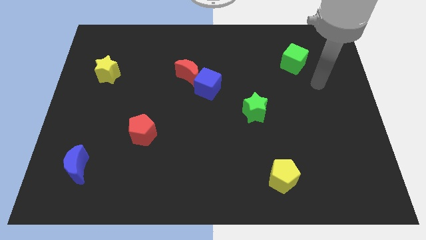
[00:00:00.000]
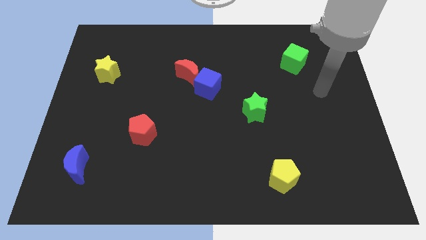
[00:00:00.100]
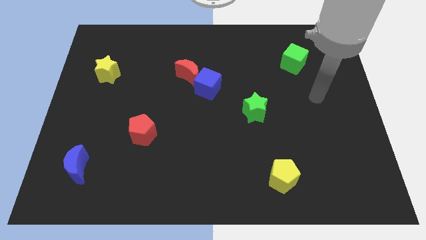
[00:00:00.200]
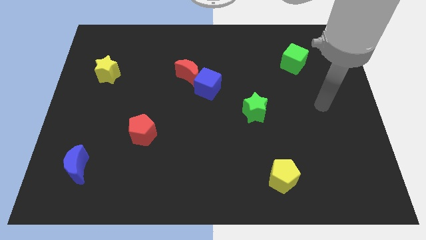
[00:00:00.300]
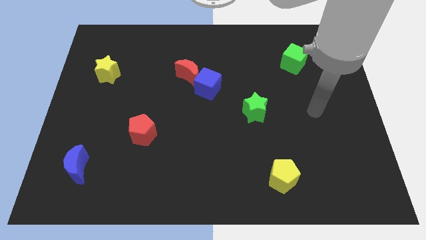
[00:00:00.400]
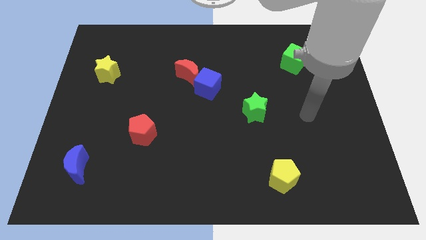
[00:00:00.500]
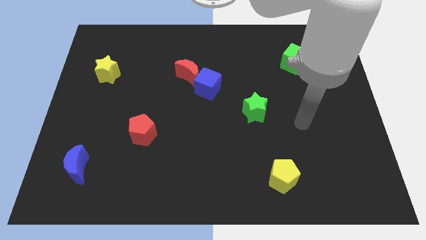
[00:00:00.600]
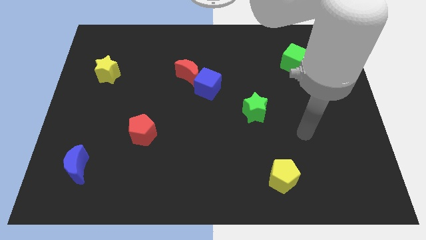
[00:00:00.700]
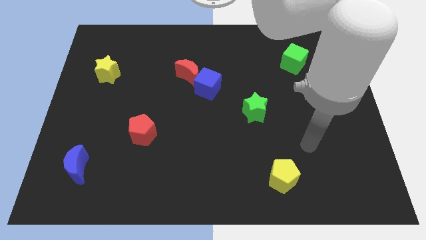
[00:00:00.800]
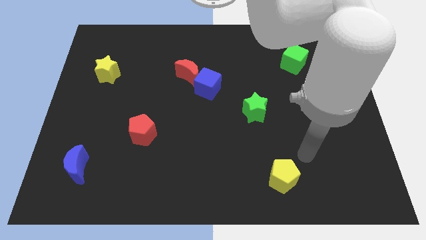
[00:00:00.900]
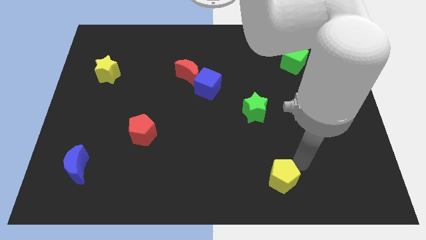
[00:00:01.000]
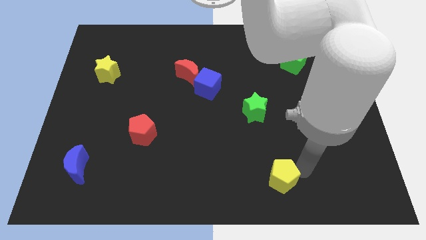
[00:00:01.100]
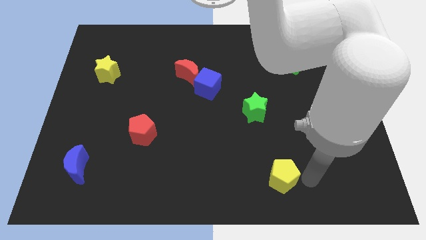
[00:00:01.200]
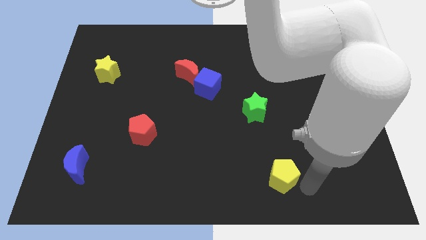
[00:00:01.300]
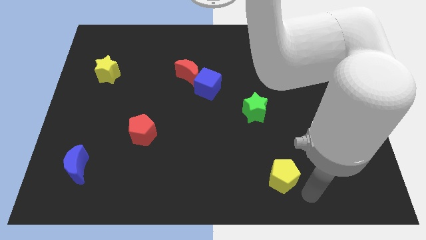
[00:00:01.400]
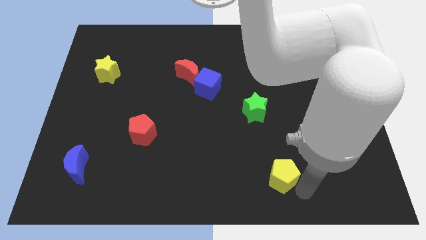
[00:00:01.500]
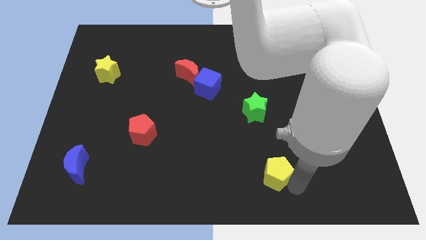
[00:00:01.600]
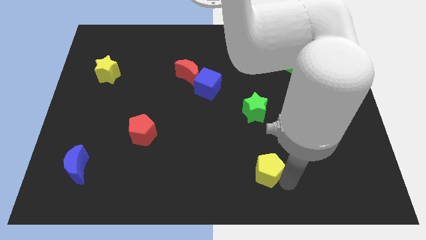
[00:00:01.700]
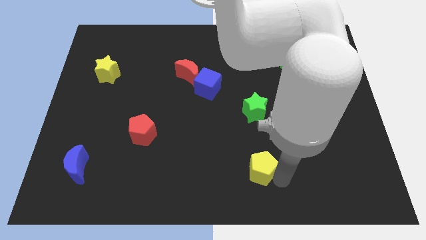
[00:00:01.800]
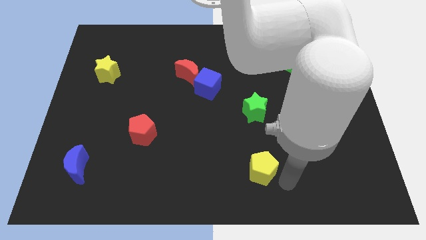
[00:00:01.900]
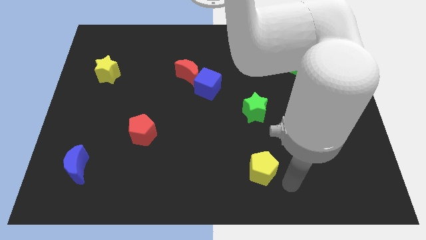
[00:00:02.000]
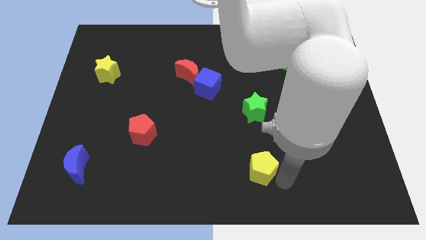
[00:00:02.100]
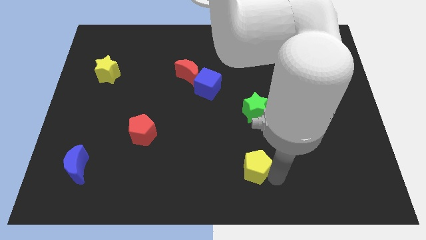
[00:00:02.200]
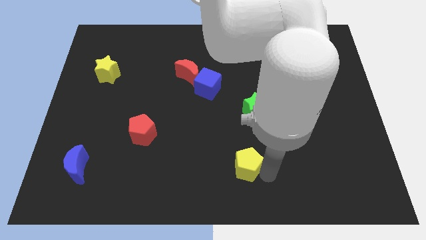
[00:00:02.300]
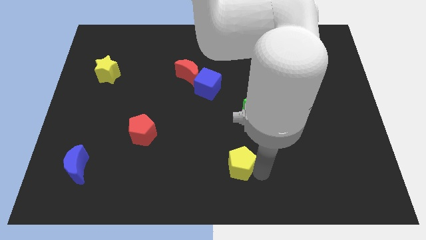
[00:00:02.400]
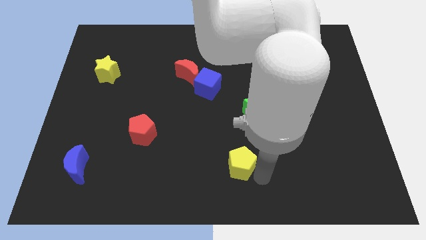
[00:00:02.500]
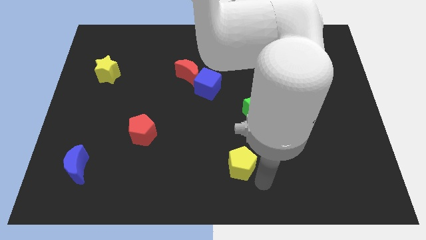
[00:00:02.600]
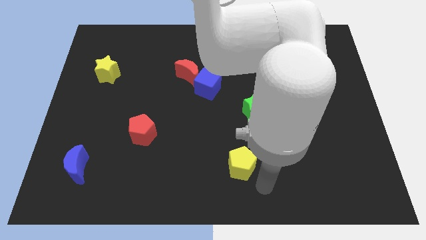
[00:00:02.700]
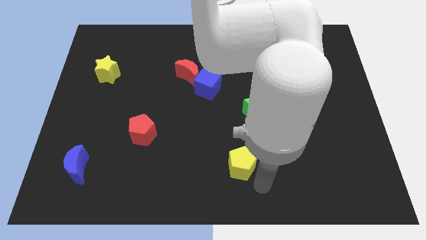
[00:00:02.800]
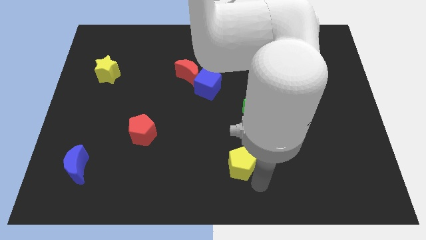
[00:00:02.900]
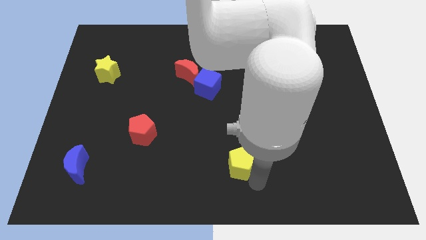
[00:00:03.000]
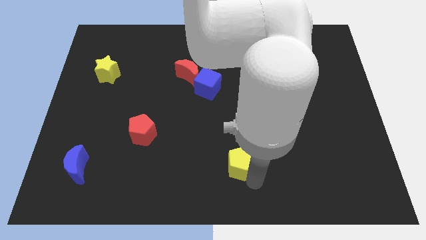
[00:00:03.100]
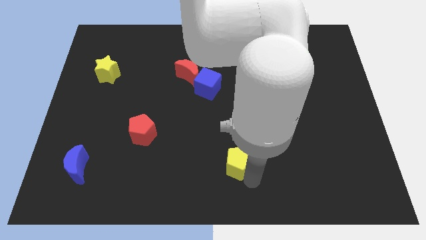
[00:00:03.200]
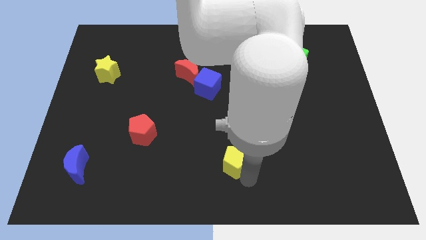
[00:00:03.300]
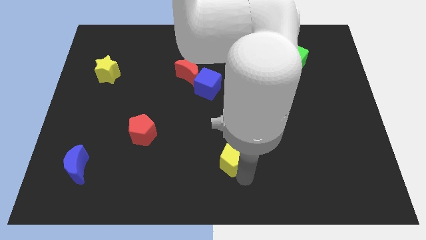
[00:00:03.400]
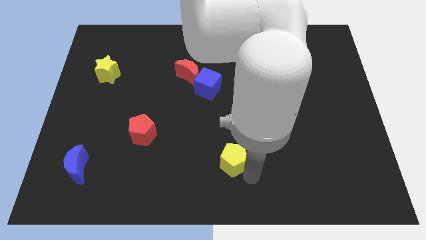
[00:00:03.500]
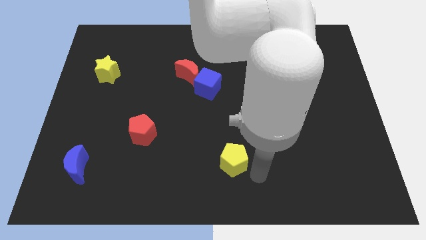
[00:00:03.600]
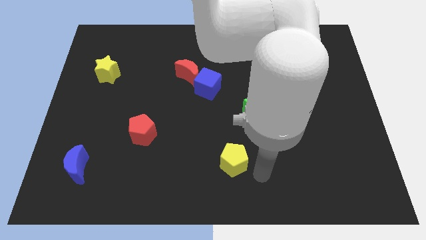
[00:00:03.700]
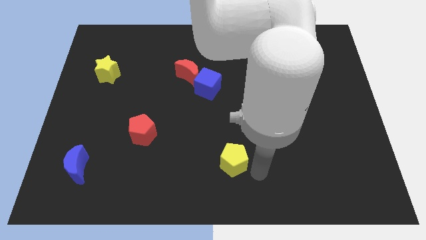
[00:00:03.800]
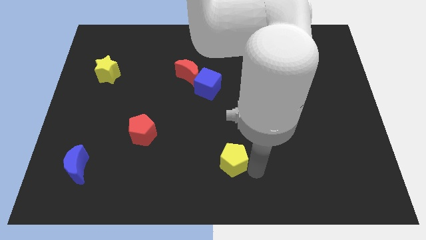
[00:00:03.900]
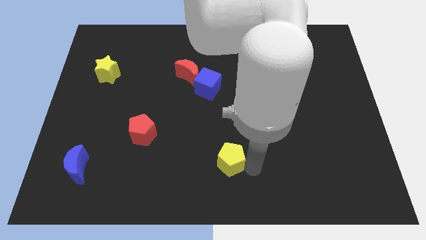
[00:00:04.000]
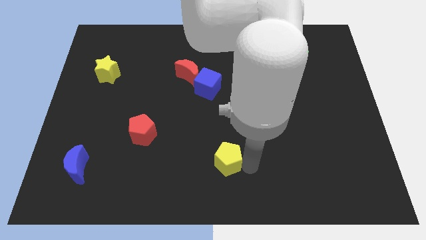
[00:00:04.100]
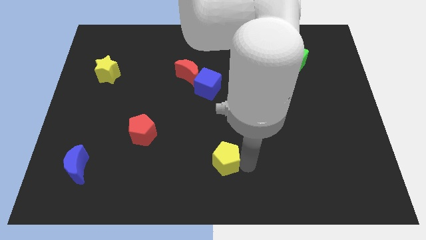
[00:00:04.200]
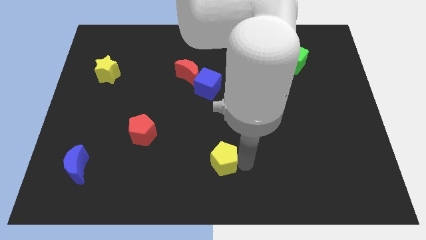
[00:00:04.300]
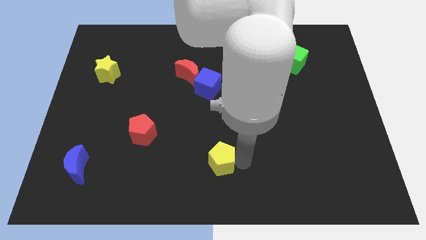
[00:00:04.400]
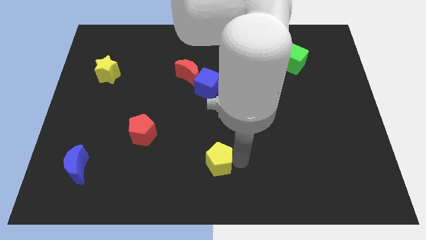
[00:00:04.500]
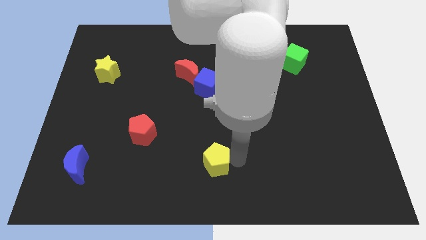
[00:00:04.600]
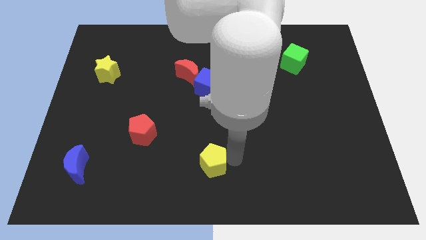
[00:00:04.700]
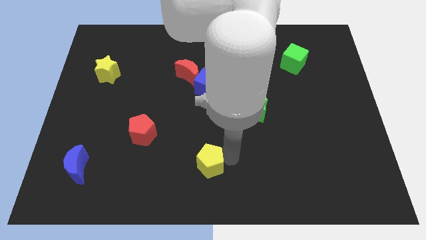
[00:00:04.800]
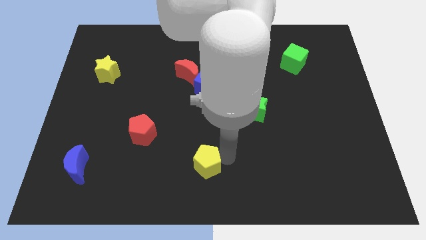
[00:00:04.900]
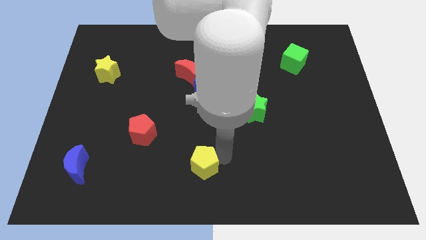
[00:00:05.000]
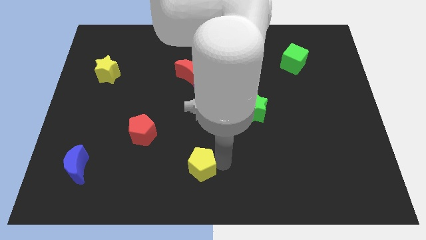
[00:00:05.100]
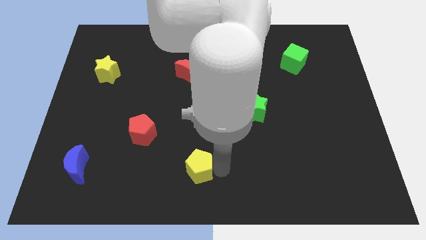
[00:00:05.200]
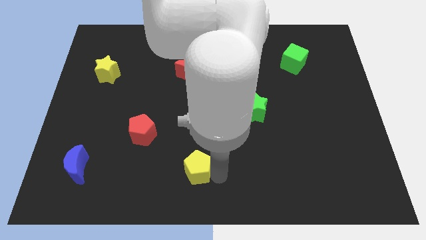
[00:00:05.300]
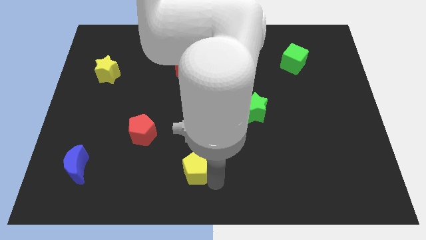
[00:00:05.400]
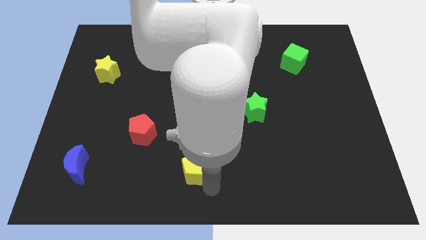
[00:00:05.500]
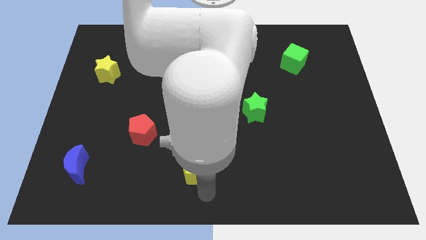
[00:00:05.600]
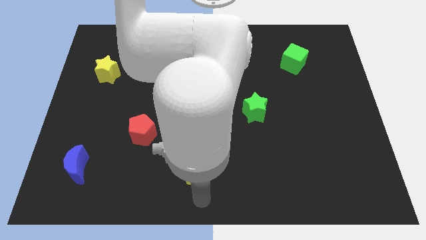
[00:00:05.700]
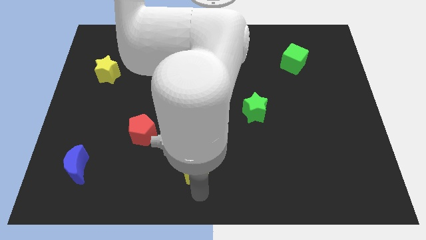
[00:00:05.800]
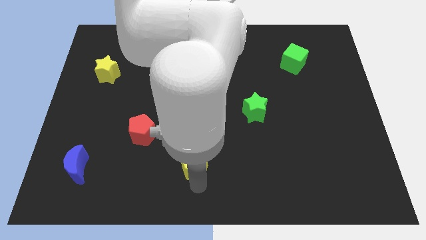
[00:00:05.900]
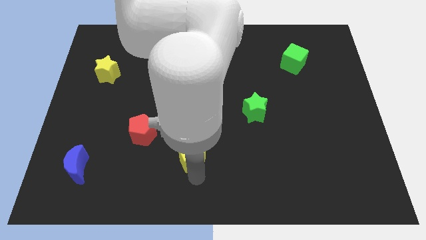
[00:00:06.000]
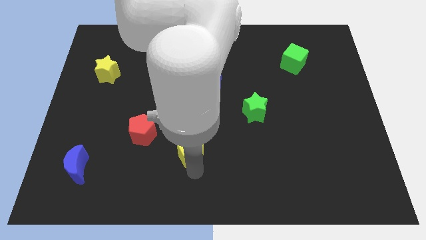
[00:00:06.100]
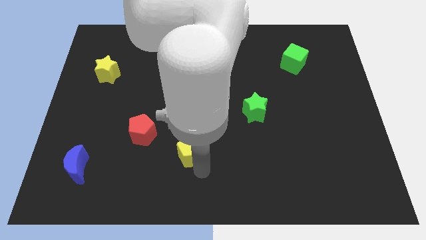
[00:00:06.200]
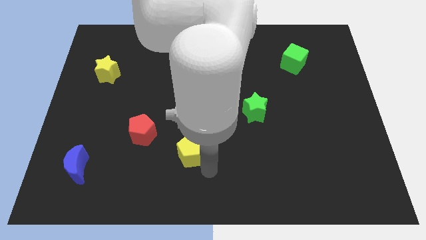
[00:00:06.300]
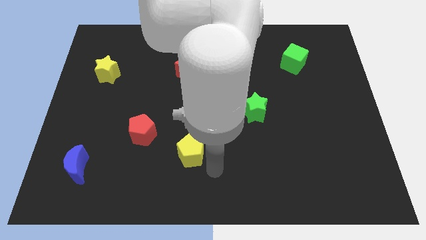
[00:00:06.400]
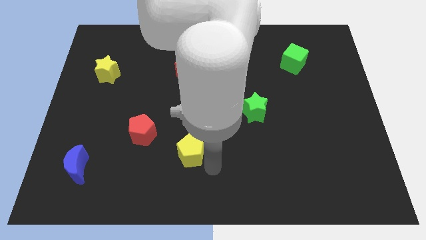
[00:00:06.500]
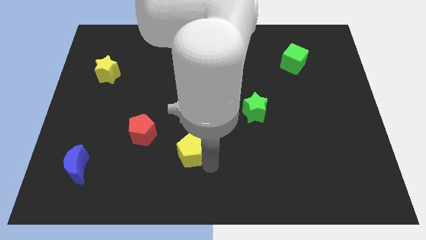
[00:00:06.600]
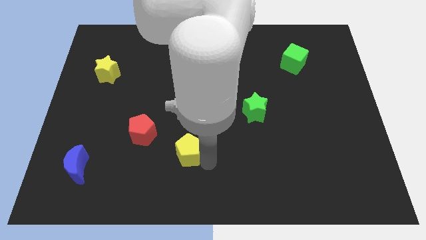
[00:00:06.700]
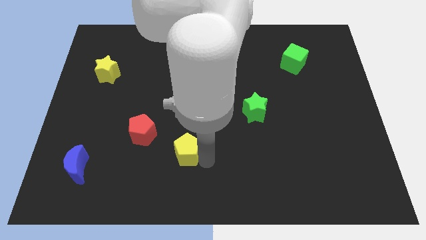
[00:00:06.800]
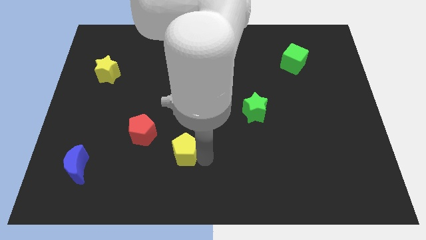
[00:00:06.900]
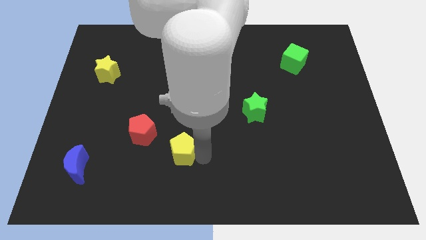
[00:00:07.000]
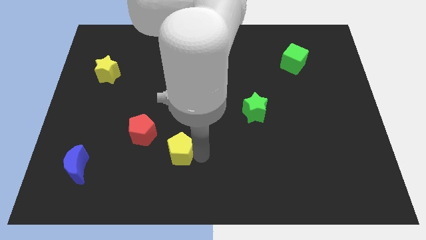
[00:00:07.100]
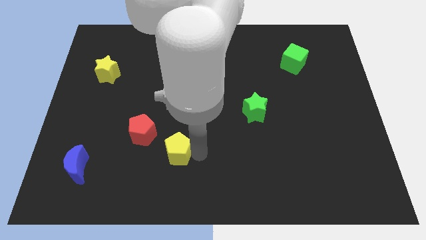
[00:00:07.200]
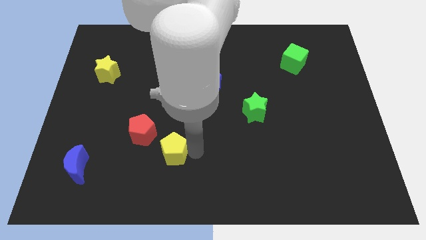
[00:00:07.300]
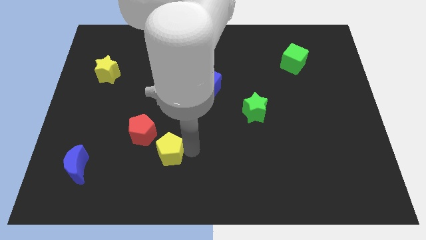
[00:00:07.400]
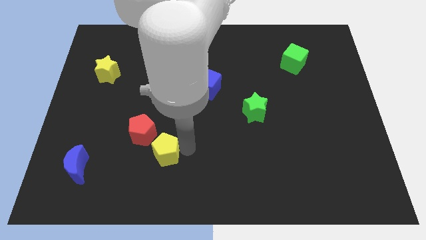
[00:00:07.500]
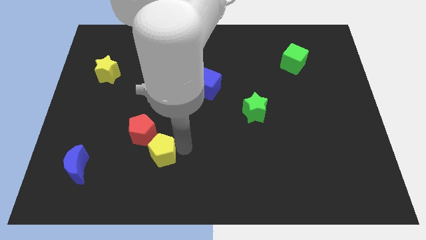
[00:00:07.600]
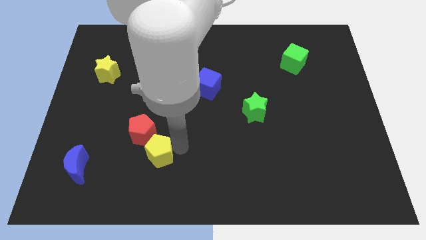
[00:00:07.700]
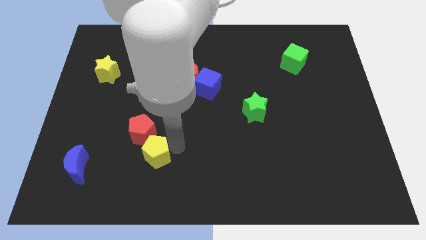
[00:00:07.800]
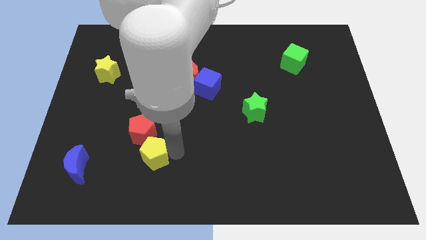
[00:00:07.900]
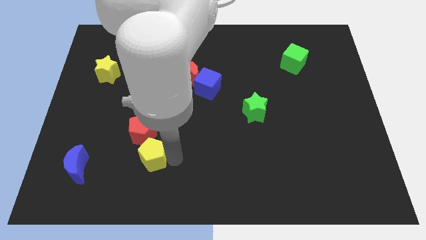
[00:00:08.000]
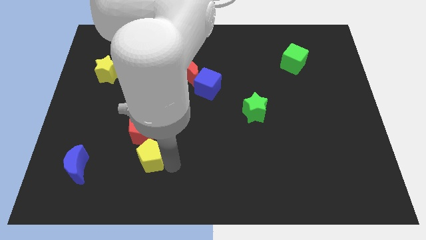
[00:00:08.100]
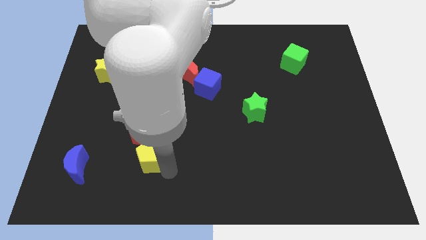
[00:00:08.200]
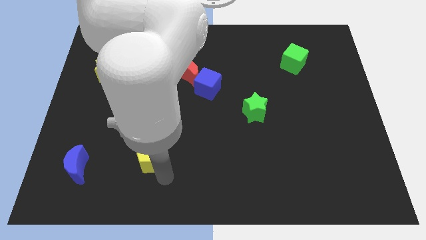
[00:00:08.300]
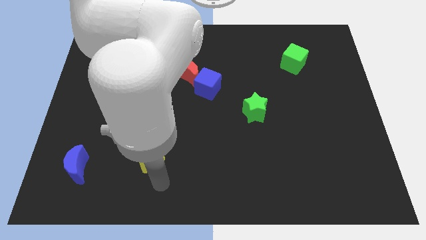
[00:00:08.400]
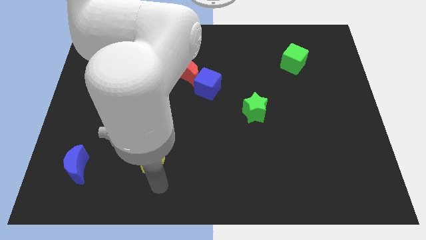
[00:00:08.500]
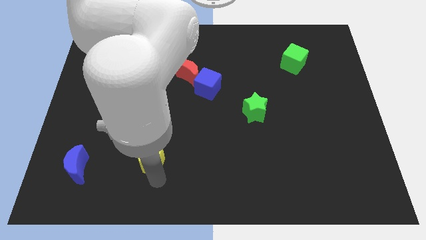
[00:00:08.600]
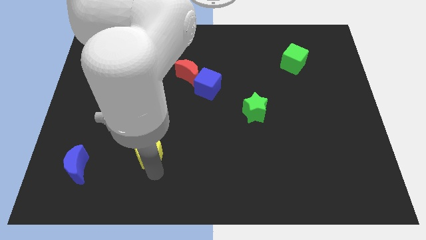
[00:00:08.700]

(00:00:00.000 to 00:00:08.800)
slide the yellow pentagon next to the red pentagon
